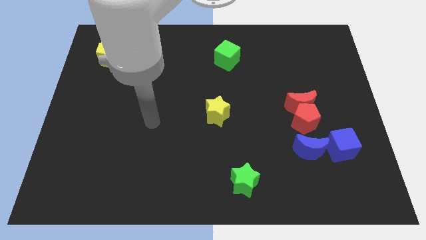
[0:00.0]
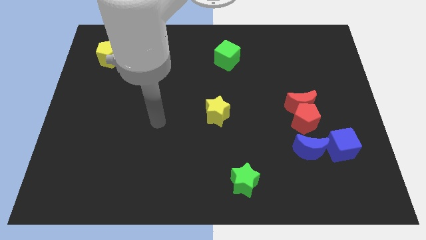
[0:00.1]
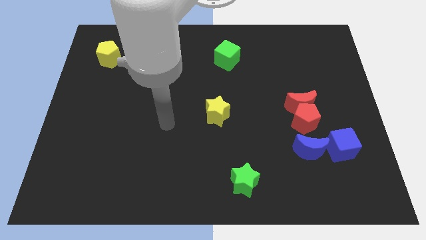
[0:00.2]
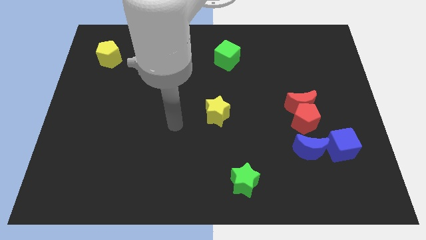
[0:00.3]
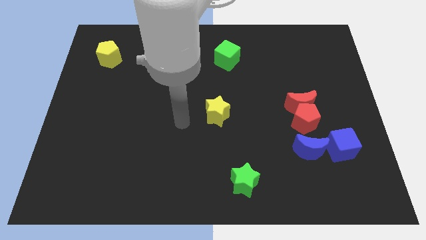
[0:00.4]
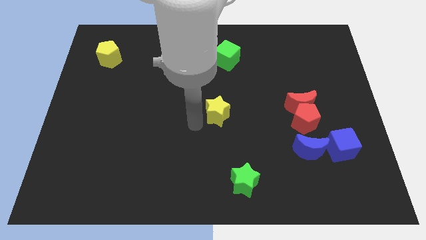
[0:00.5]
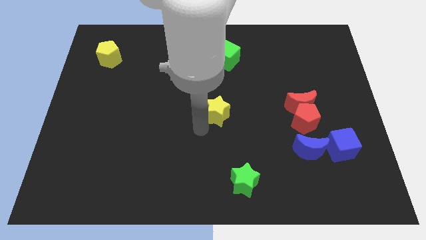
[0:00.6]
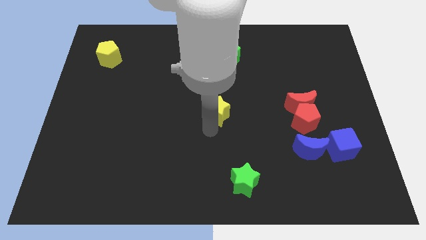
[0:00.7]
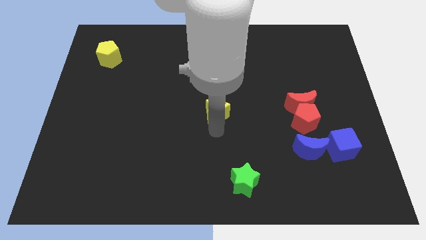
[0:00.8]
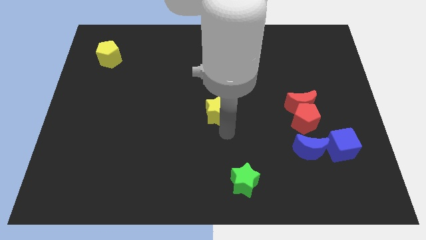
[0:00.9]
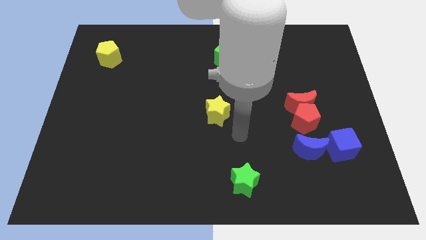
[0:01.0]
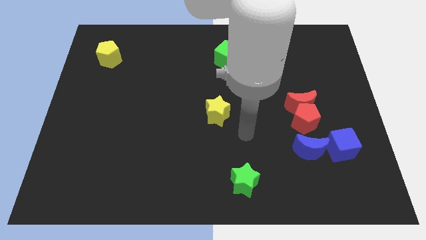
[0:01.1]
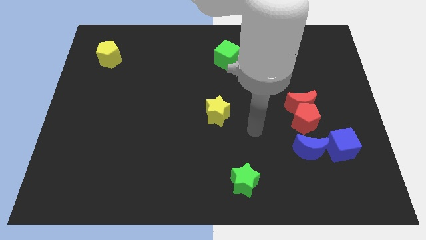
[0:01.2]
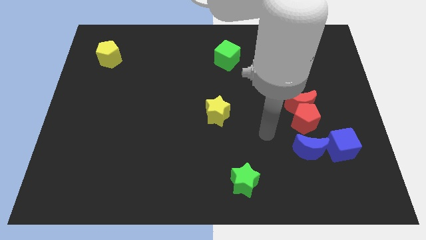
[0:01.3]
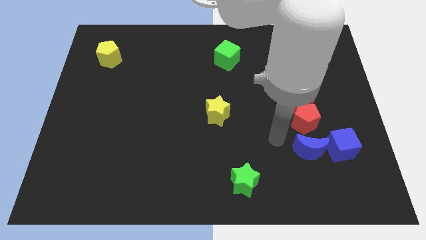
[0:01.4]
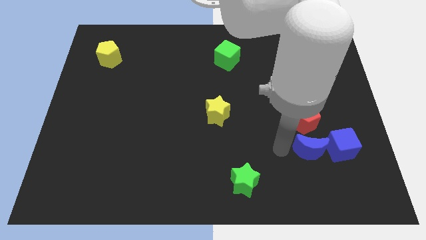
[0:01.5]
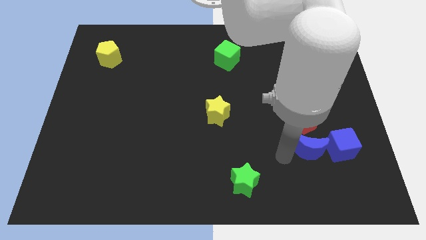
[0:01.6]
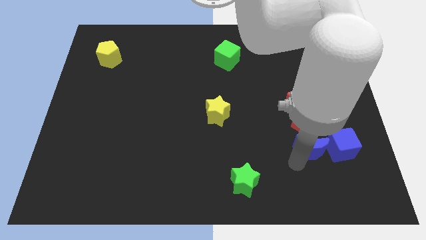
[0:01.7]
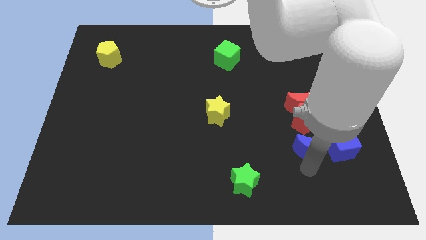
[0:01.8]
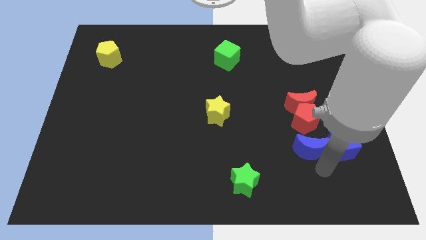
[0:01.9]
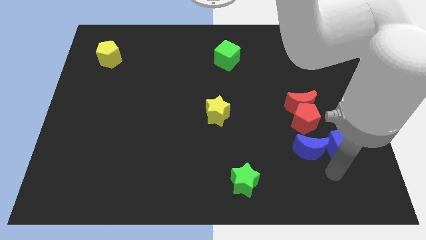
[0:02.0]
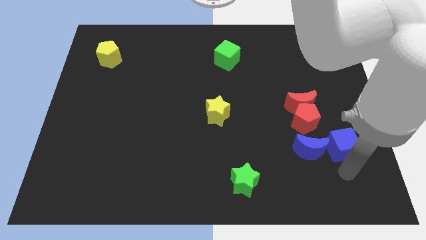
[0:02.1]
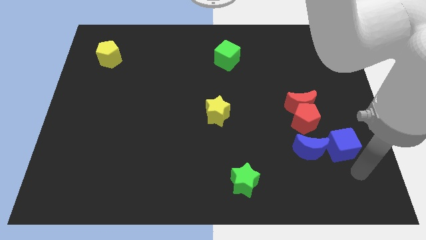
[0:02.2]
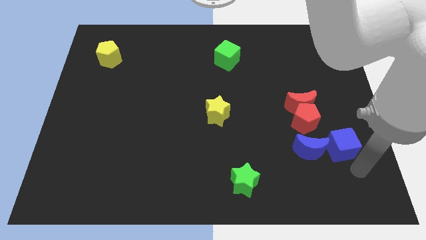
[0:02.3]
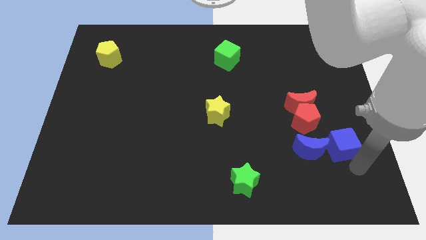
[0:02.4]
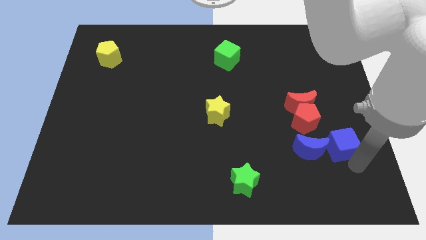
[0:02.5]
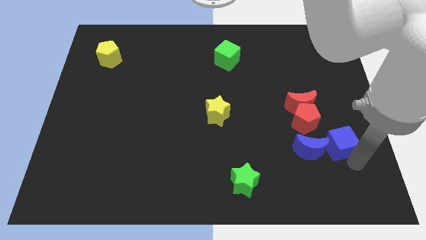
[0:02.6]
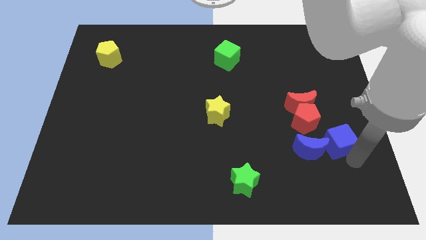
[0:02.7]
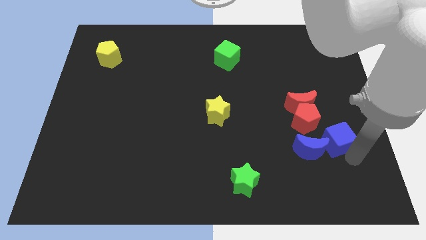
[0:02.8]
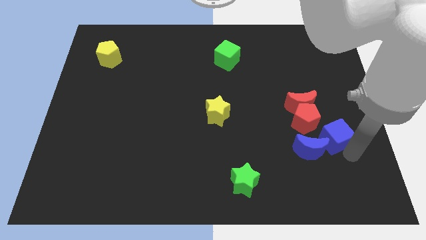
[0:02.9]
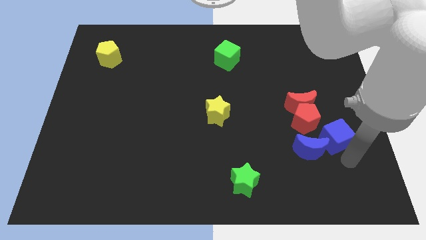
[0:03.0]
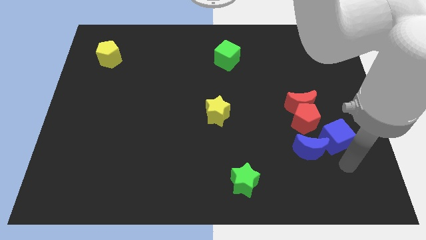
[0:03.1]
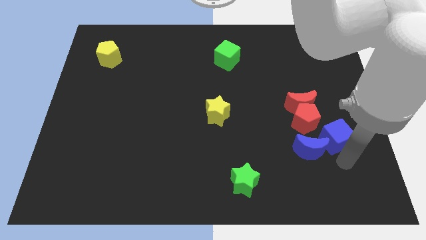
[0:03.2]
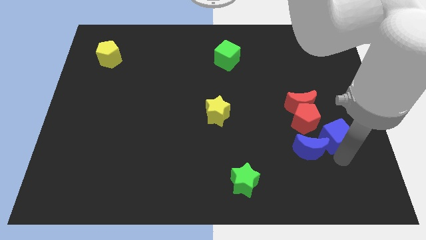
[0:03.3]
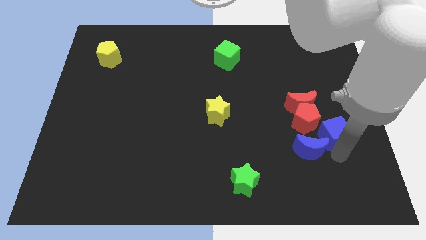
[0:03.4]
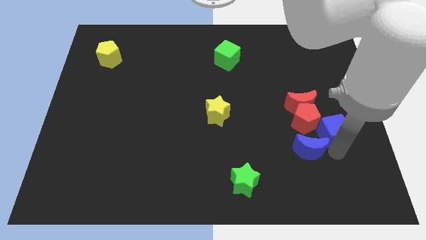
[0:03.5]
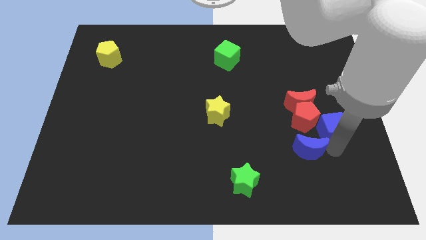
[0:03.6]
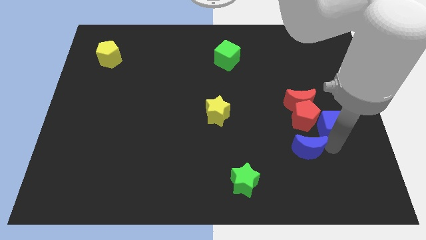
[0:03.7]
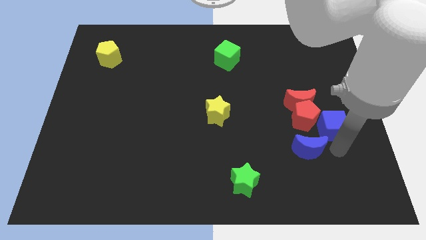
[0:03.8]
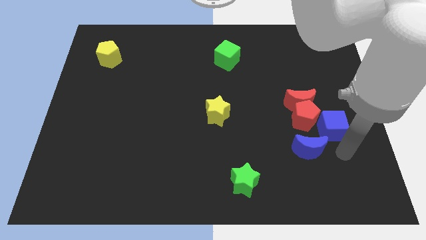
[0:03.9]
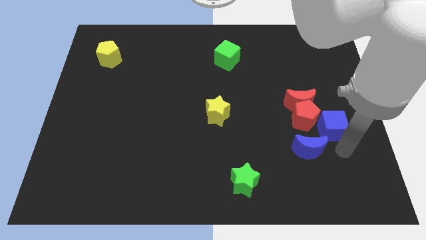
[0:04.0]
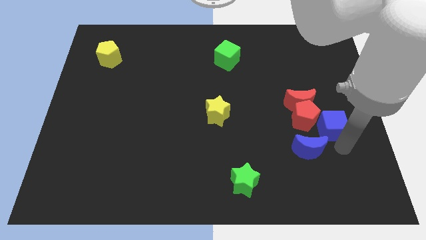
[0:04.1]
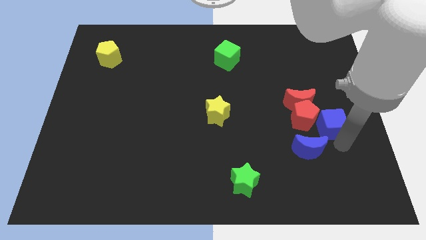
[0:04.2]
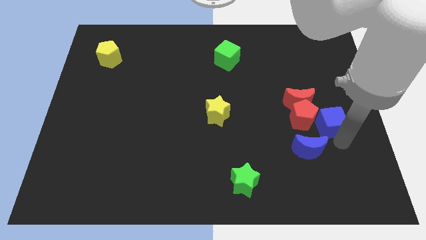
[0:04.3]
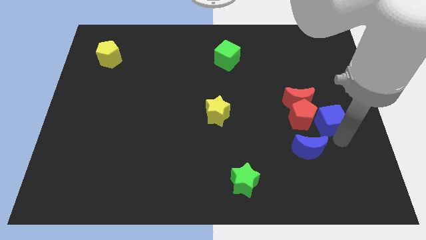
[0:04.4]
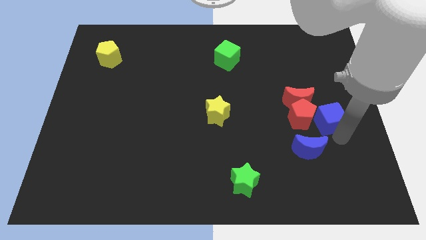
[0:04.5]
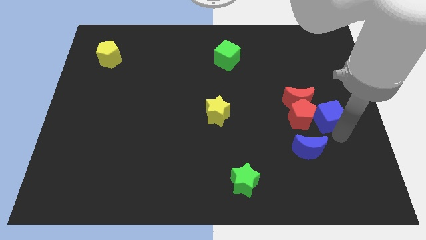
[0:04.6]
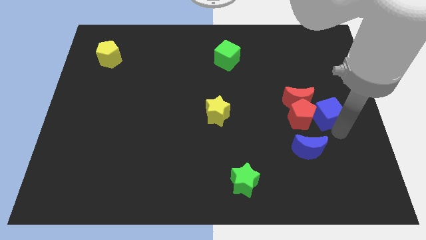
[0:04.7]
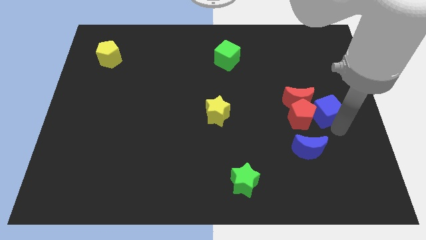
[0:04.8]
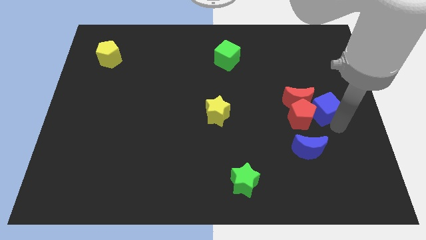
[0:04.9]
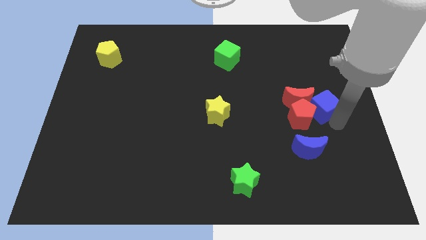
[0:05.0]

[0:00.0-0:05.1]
put the blue cube next to the red moon

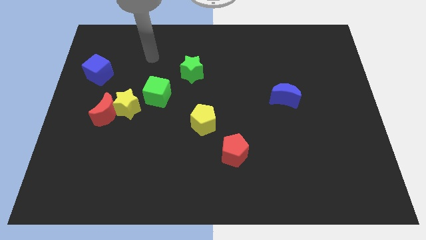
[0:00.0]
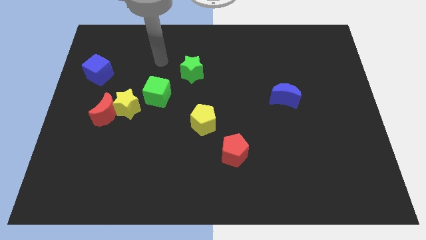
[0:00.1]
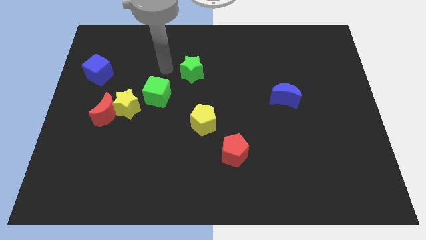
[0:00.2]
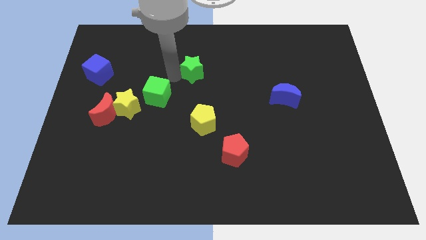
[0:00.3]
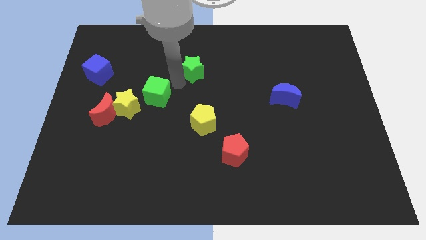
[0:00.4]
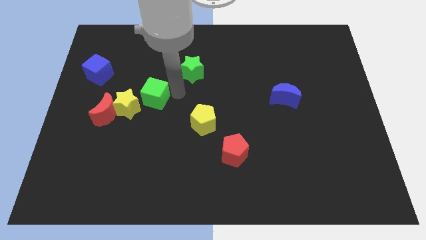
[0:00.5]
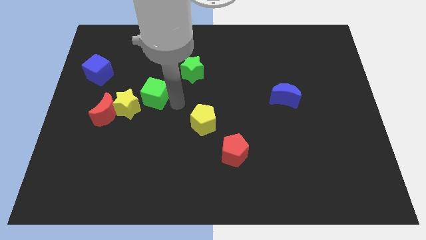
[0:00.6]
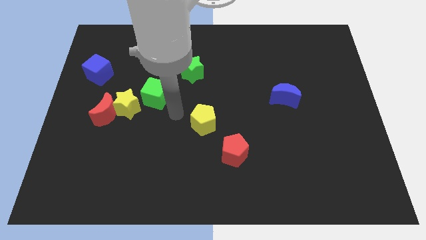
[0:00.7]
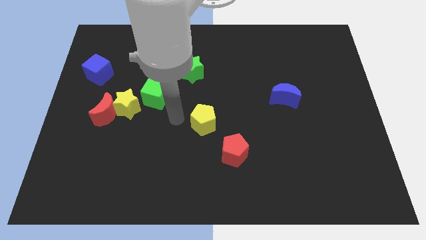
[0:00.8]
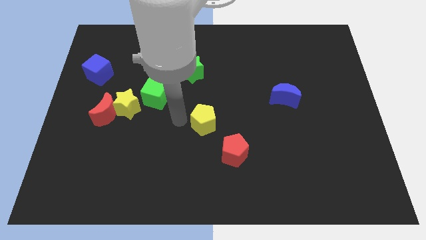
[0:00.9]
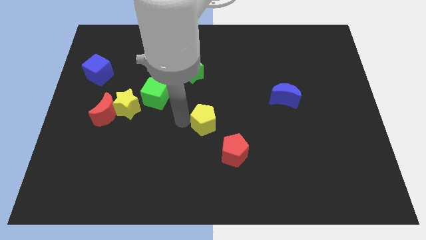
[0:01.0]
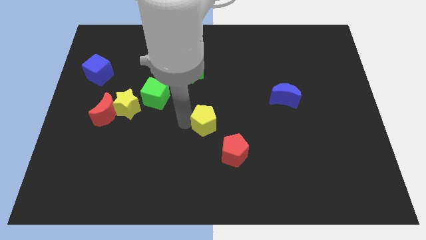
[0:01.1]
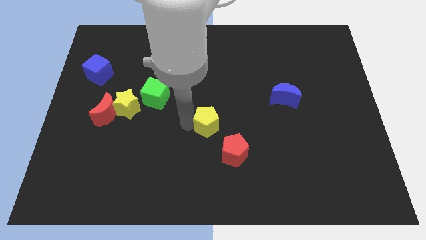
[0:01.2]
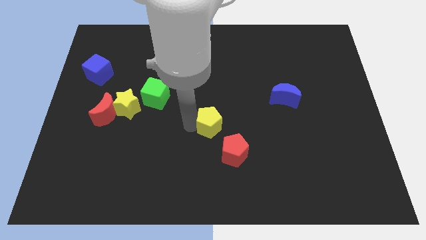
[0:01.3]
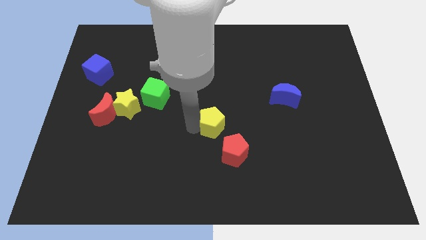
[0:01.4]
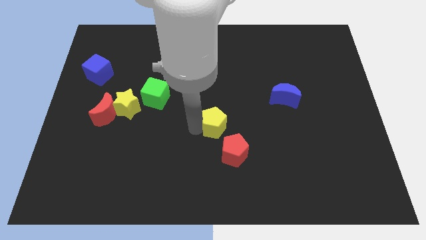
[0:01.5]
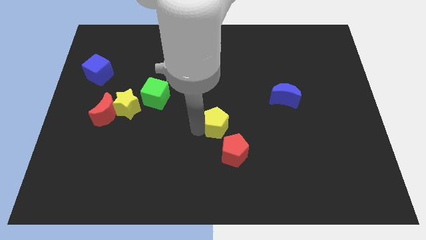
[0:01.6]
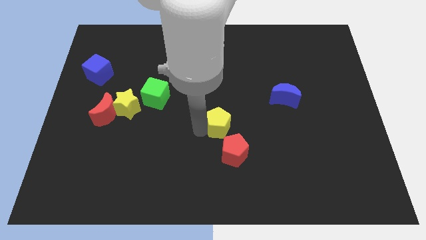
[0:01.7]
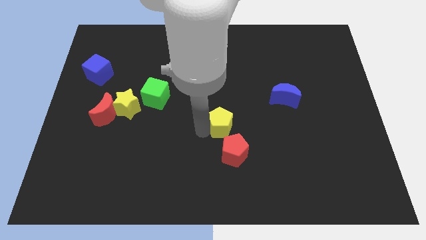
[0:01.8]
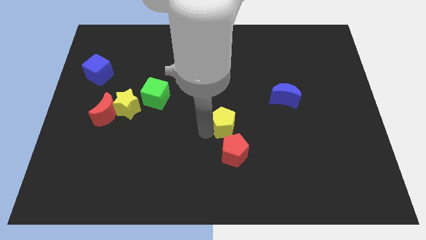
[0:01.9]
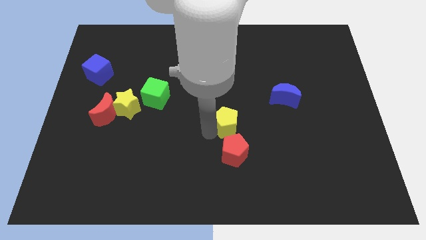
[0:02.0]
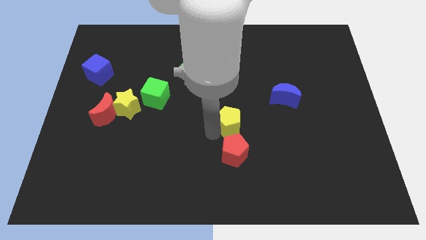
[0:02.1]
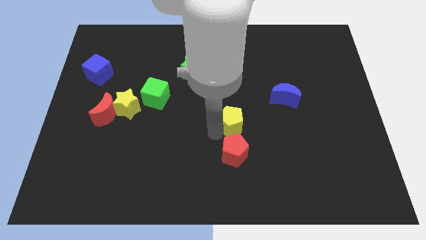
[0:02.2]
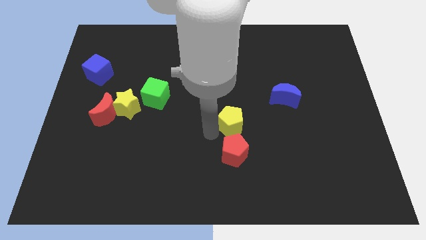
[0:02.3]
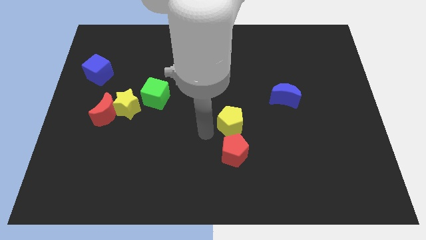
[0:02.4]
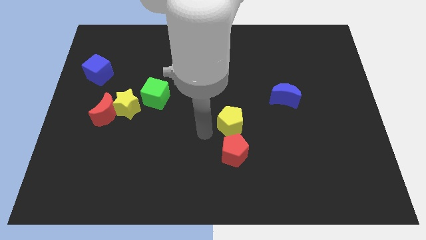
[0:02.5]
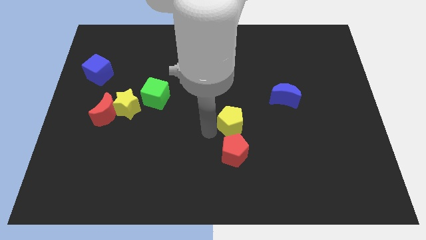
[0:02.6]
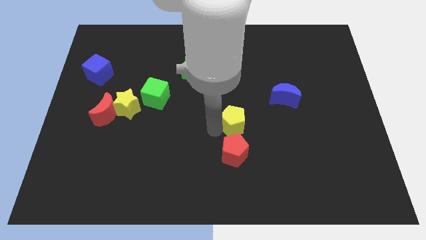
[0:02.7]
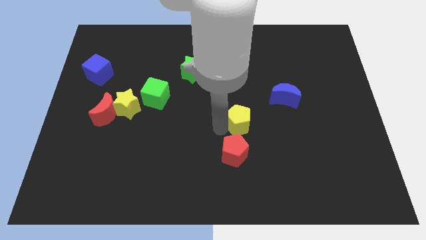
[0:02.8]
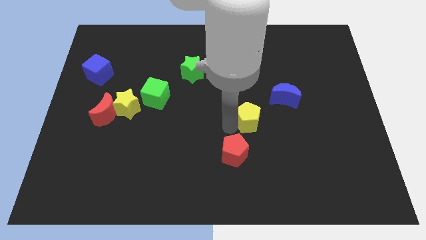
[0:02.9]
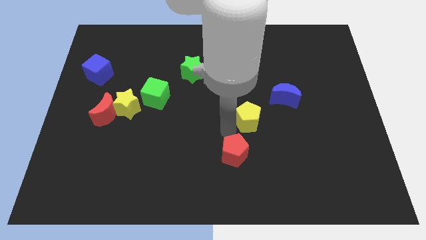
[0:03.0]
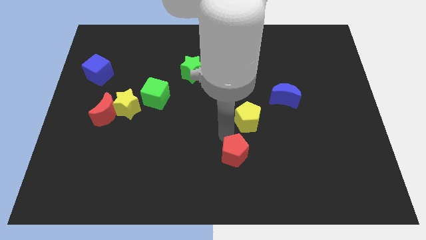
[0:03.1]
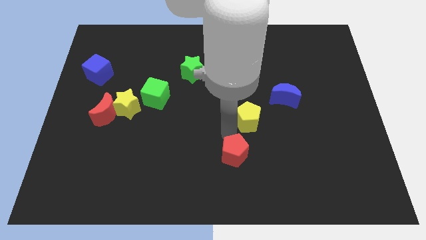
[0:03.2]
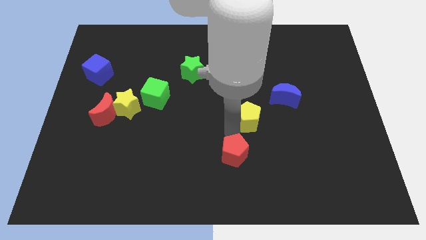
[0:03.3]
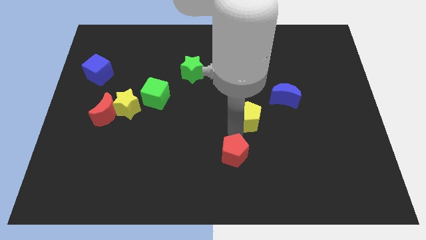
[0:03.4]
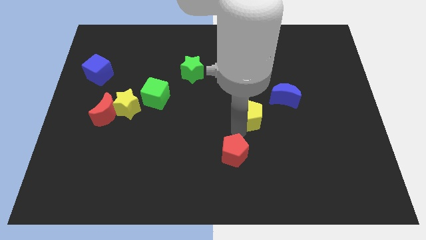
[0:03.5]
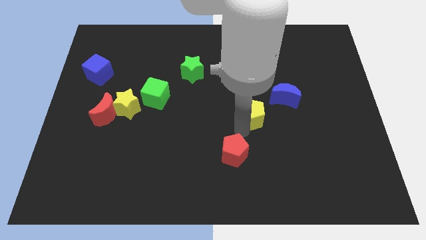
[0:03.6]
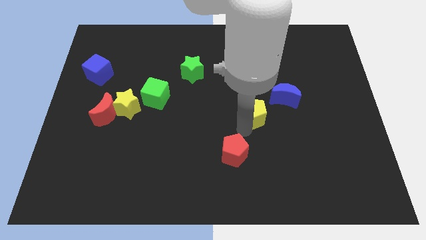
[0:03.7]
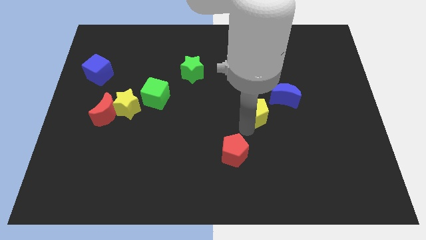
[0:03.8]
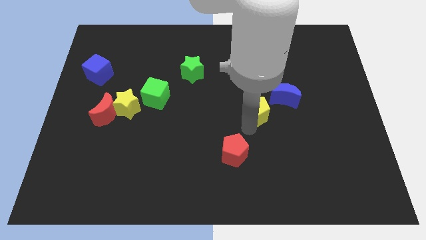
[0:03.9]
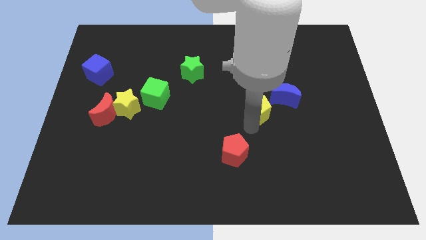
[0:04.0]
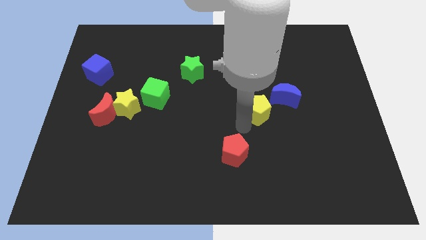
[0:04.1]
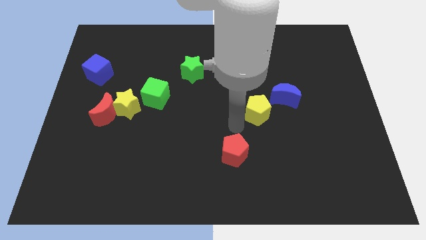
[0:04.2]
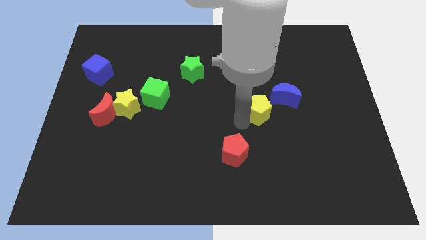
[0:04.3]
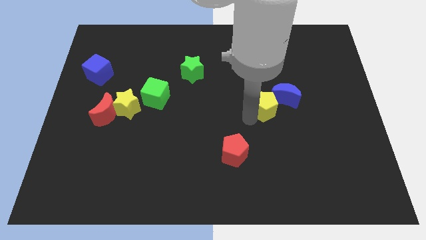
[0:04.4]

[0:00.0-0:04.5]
slide the yellow pentagon close to the blue moon
